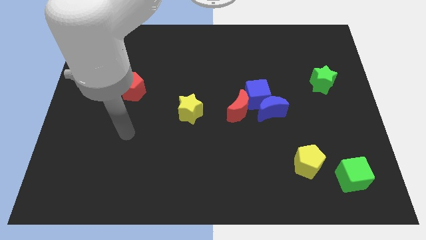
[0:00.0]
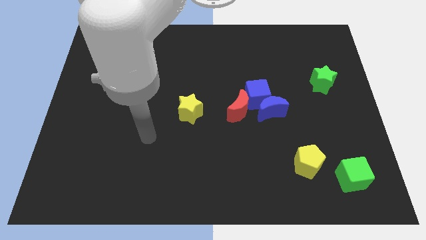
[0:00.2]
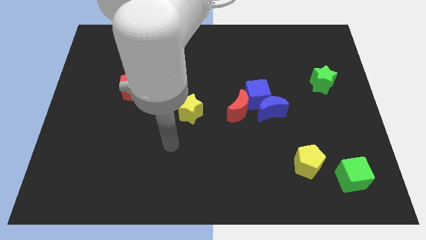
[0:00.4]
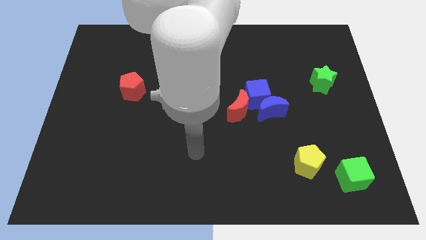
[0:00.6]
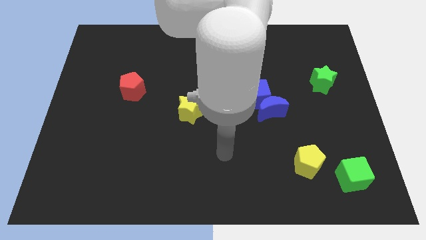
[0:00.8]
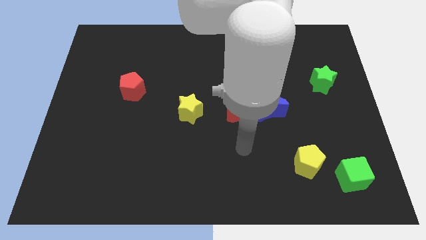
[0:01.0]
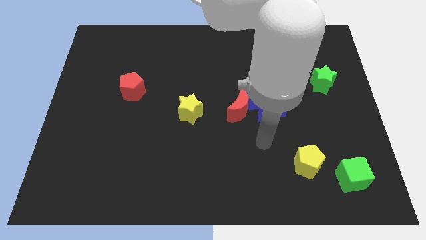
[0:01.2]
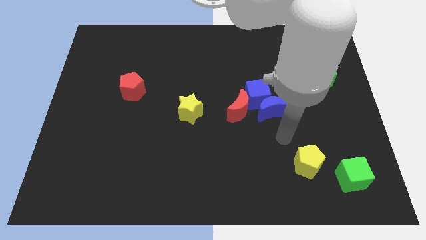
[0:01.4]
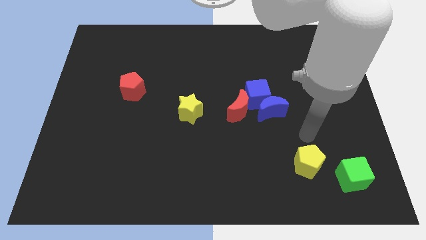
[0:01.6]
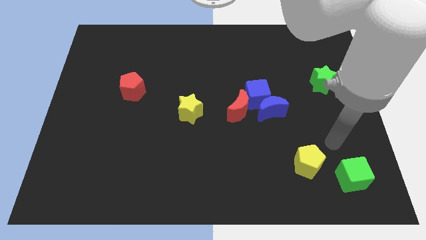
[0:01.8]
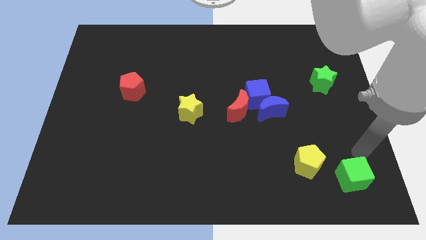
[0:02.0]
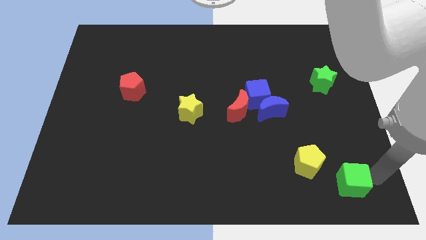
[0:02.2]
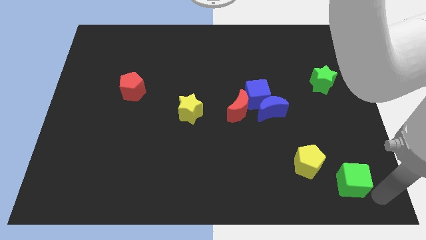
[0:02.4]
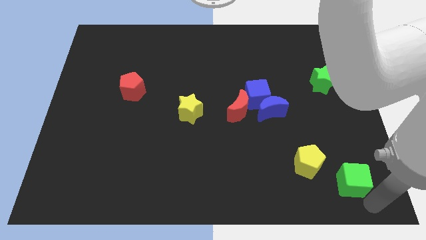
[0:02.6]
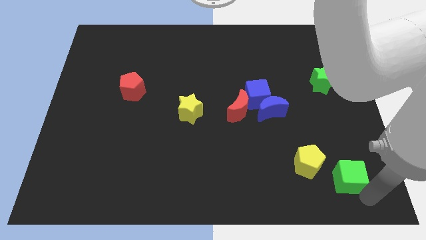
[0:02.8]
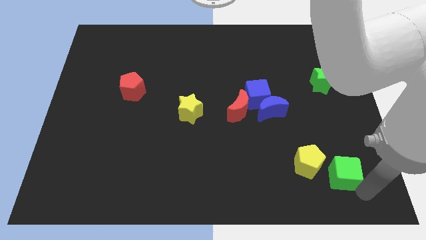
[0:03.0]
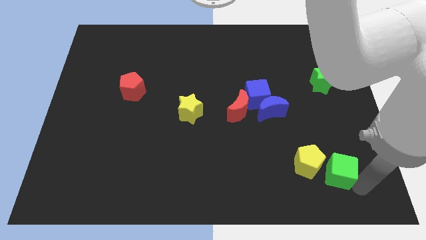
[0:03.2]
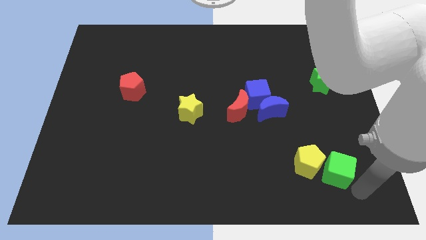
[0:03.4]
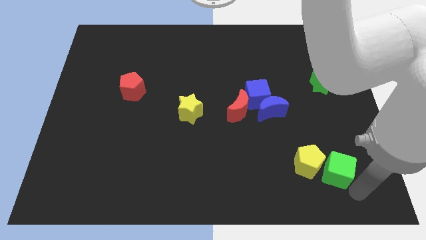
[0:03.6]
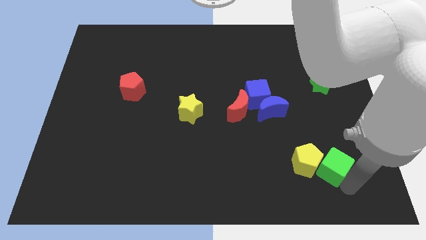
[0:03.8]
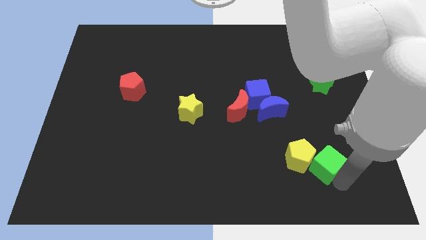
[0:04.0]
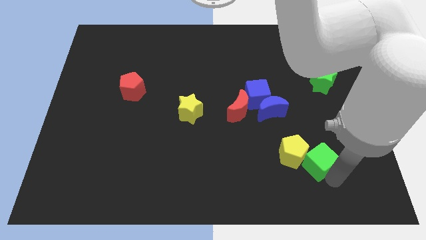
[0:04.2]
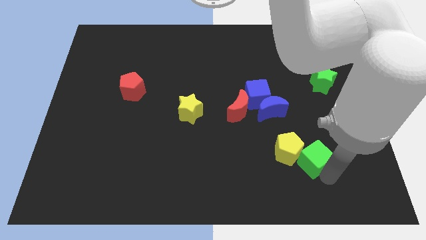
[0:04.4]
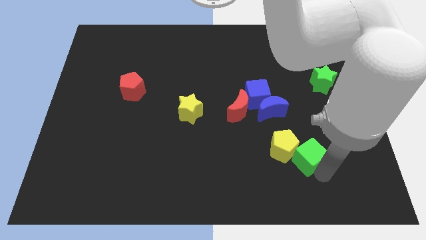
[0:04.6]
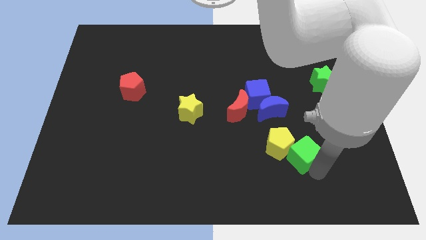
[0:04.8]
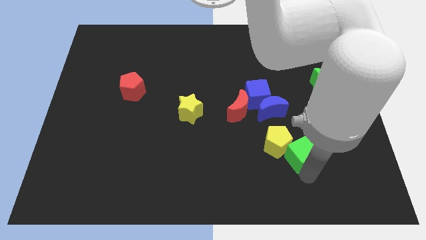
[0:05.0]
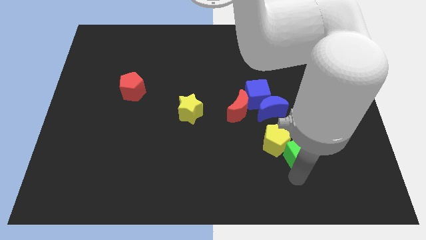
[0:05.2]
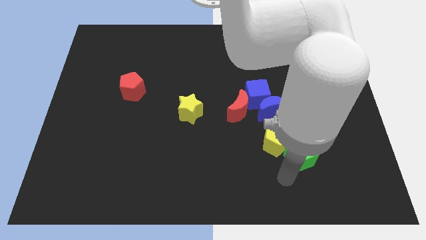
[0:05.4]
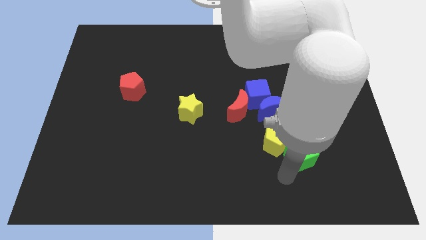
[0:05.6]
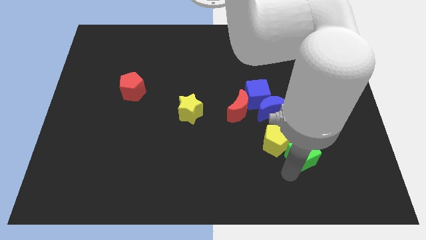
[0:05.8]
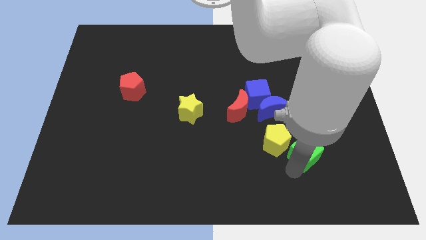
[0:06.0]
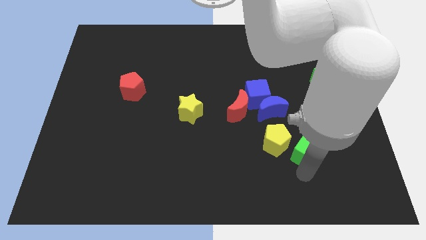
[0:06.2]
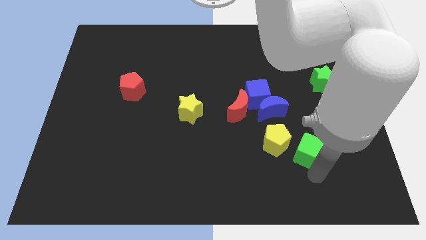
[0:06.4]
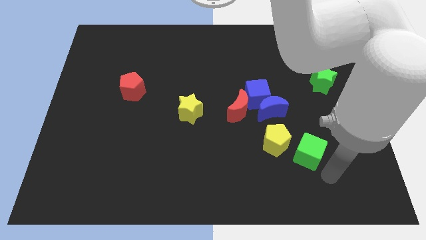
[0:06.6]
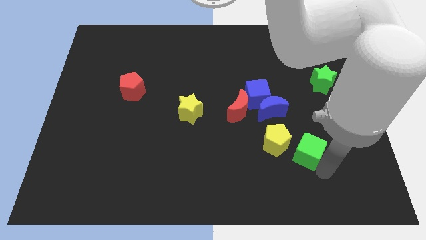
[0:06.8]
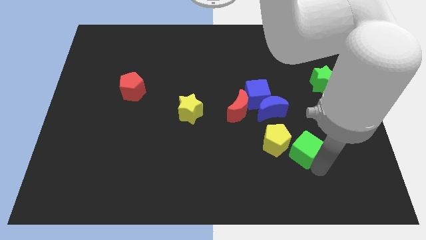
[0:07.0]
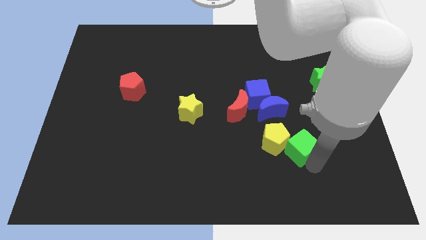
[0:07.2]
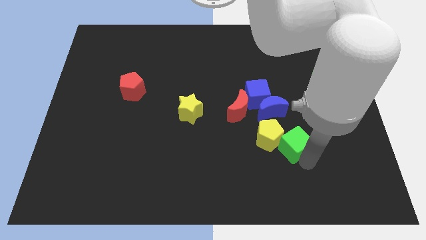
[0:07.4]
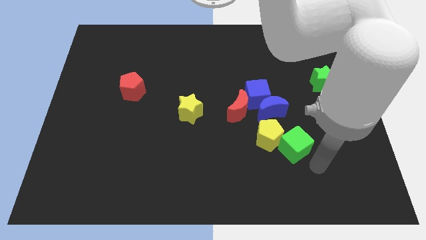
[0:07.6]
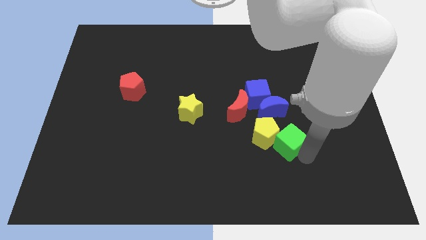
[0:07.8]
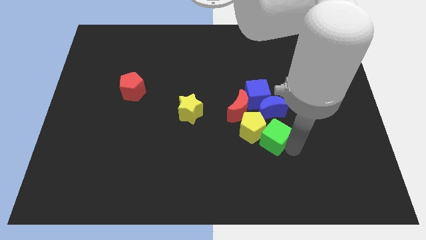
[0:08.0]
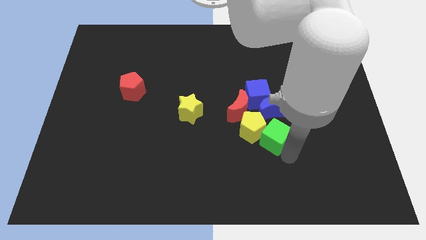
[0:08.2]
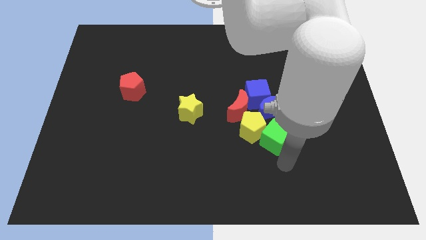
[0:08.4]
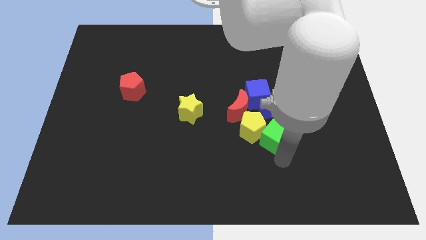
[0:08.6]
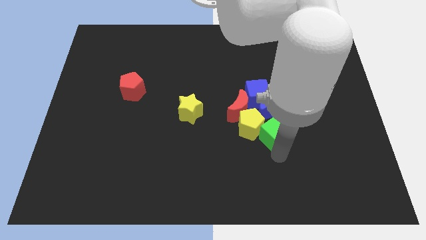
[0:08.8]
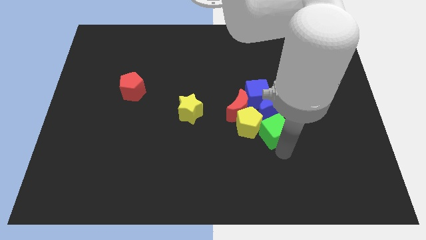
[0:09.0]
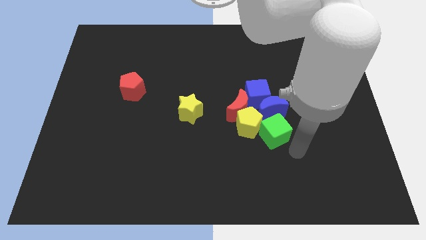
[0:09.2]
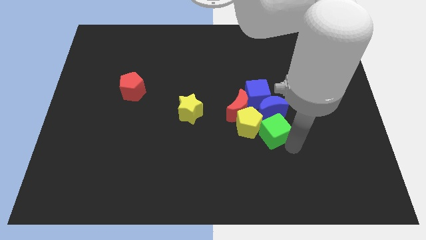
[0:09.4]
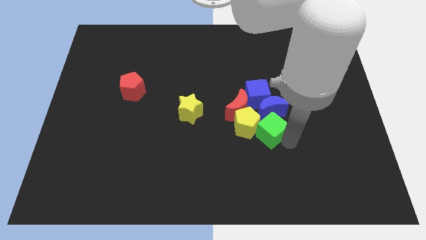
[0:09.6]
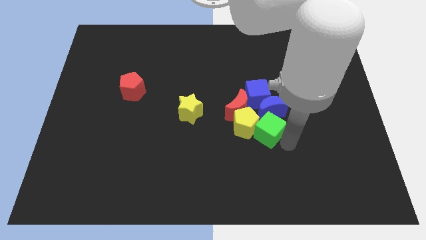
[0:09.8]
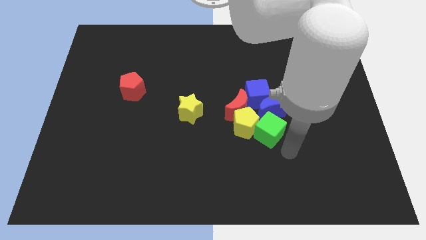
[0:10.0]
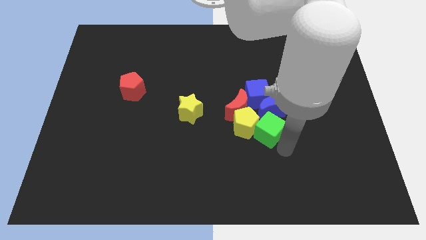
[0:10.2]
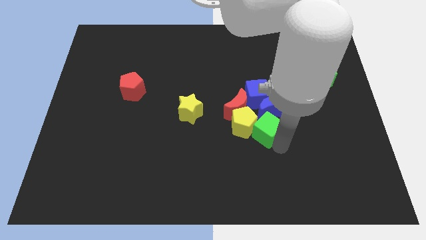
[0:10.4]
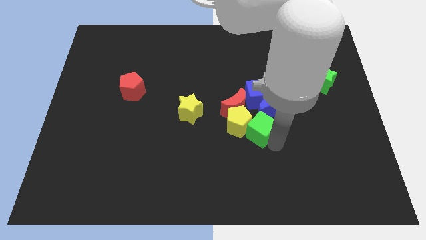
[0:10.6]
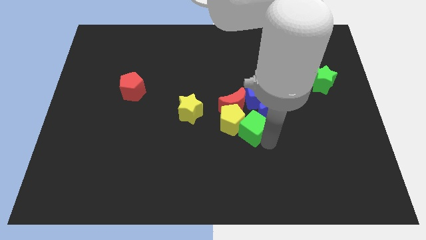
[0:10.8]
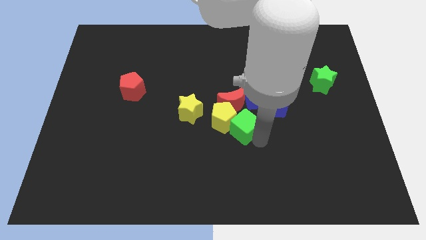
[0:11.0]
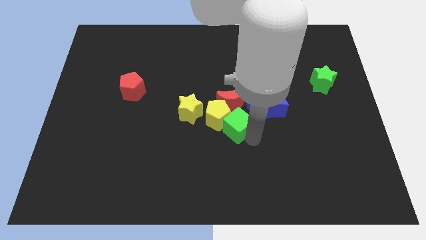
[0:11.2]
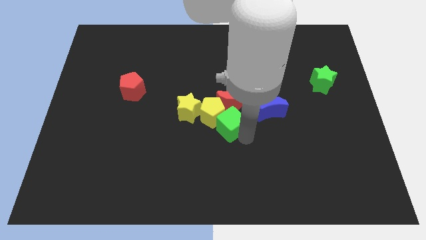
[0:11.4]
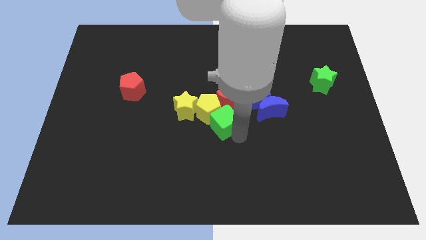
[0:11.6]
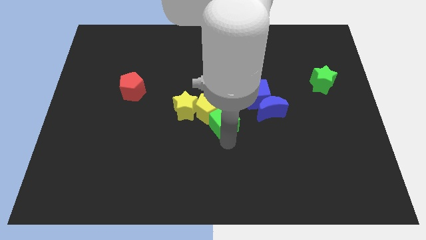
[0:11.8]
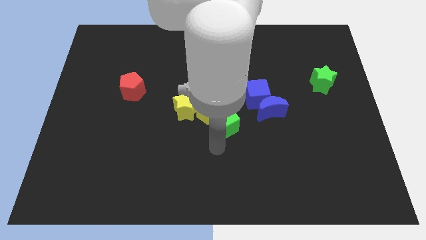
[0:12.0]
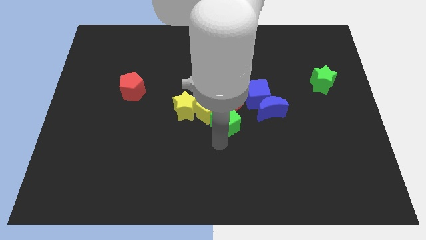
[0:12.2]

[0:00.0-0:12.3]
move the green cube close to the red moon

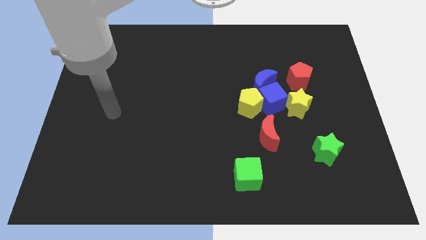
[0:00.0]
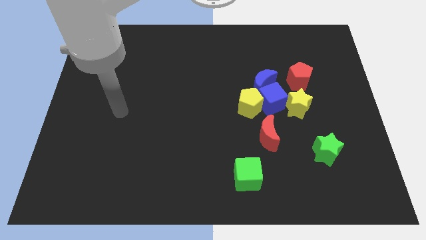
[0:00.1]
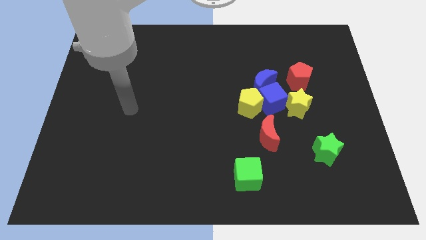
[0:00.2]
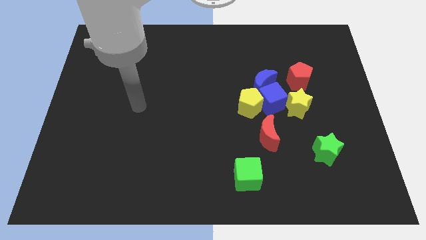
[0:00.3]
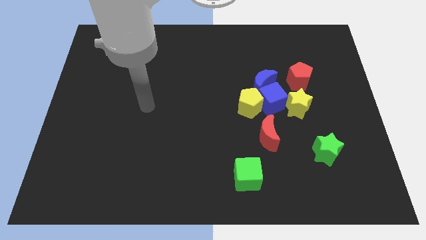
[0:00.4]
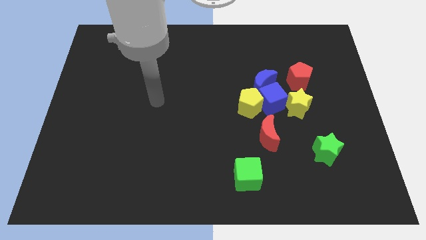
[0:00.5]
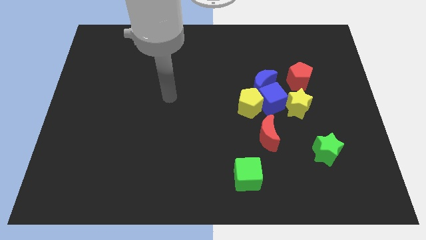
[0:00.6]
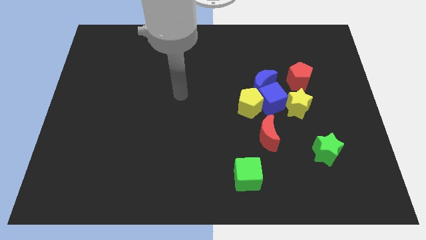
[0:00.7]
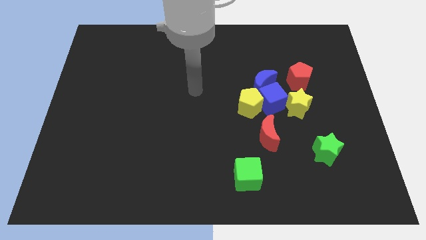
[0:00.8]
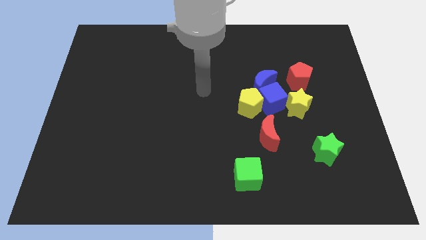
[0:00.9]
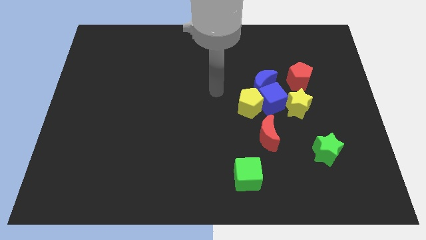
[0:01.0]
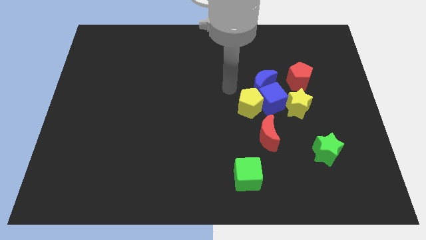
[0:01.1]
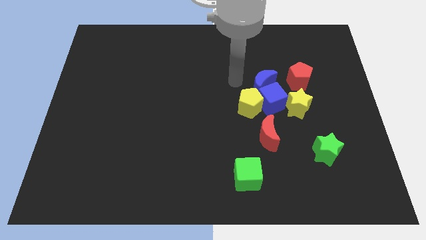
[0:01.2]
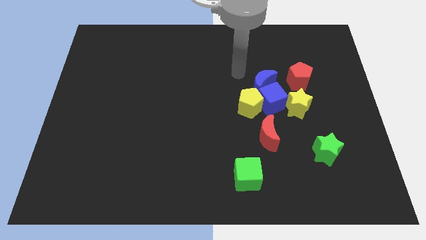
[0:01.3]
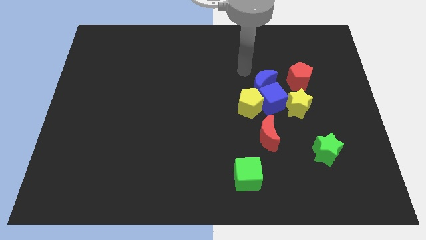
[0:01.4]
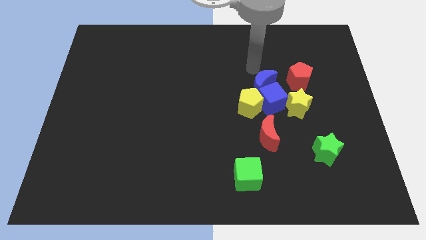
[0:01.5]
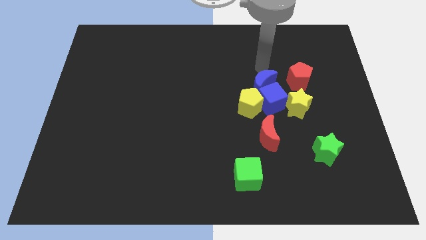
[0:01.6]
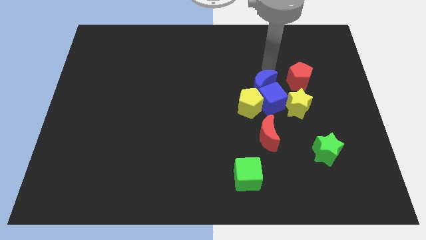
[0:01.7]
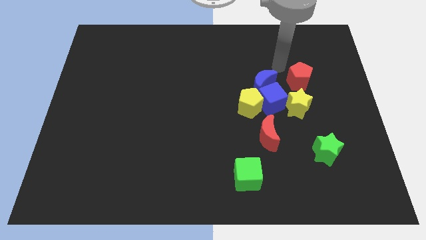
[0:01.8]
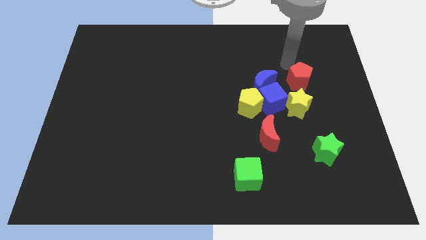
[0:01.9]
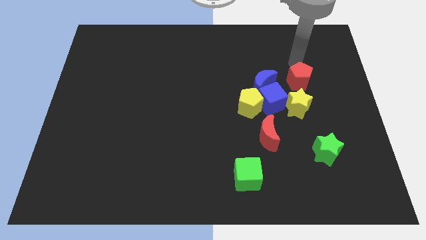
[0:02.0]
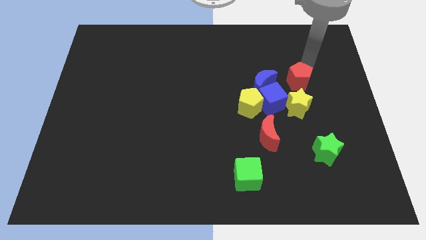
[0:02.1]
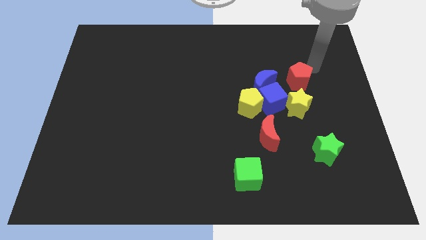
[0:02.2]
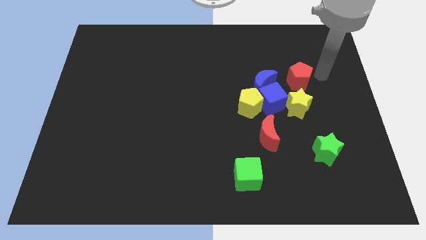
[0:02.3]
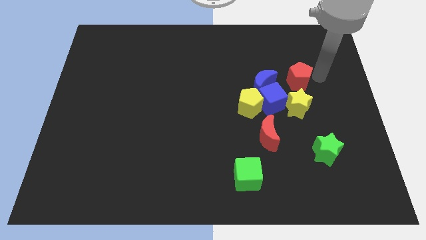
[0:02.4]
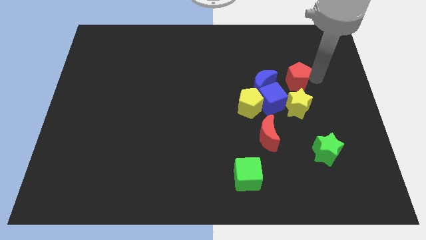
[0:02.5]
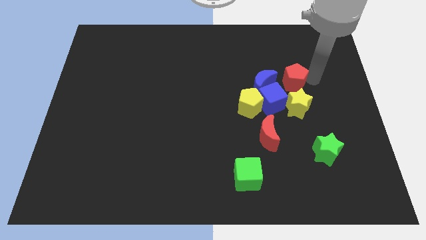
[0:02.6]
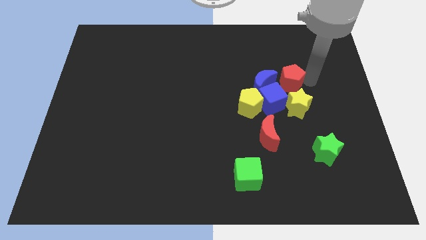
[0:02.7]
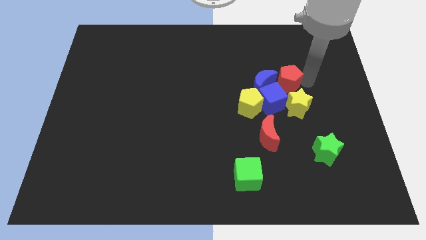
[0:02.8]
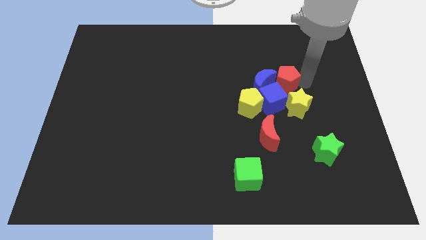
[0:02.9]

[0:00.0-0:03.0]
move the red pentagon next to the blue moon
